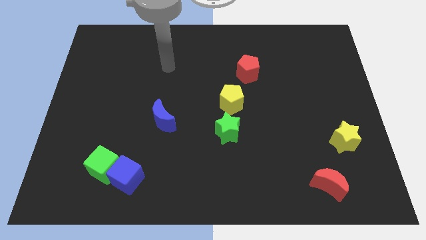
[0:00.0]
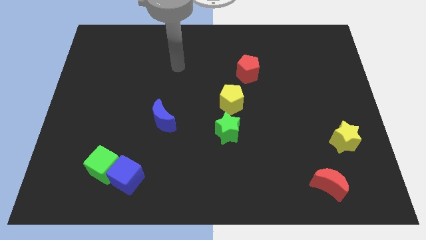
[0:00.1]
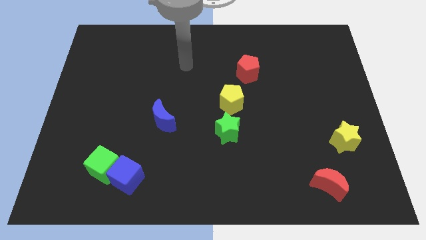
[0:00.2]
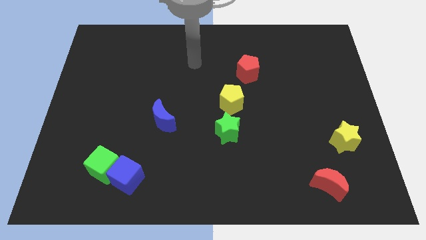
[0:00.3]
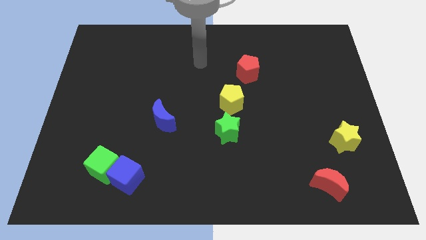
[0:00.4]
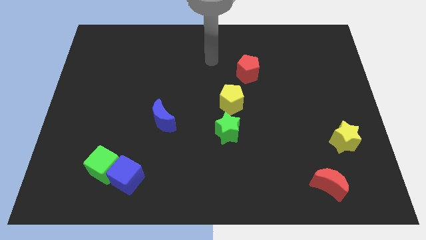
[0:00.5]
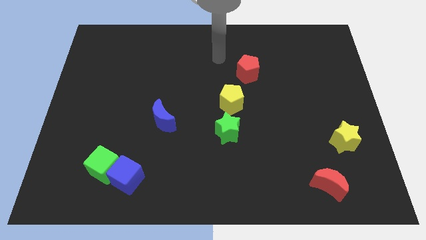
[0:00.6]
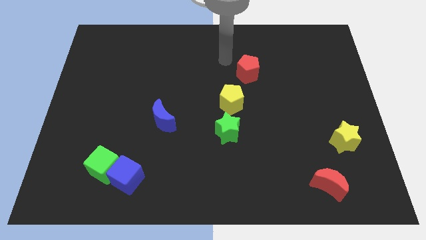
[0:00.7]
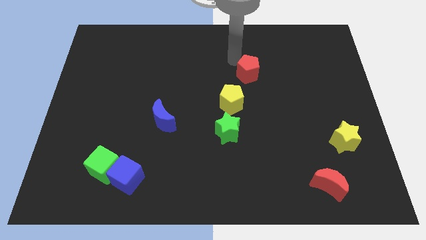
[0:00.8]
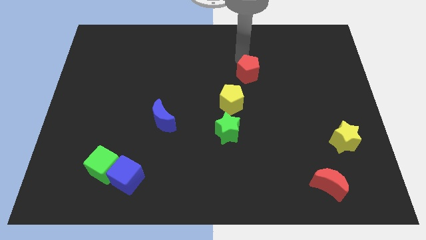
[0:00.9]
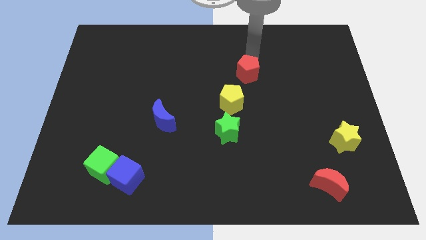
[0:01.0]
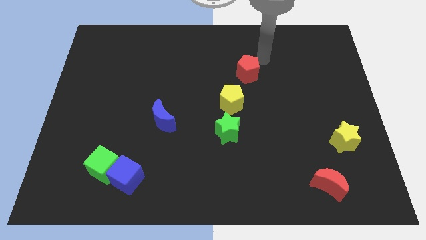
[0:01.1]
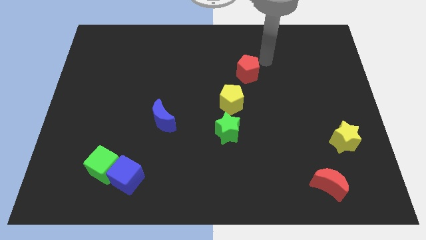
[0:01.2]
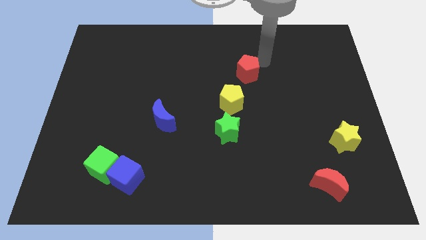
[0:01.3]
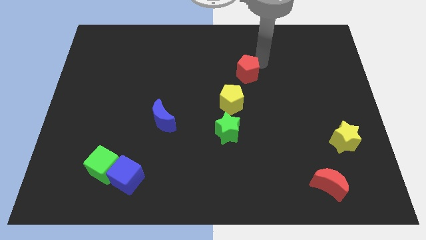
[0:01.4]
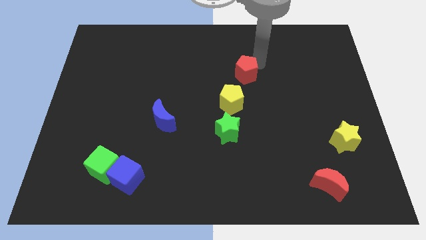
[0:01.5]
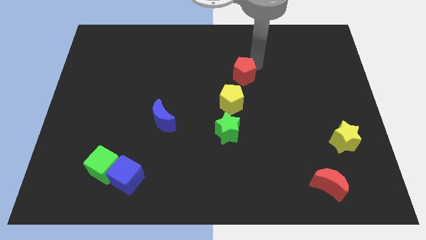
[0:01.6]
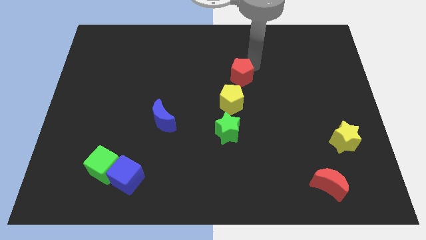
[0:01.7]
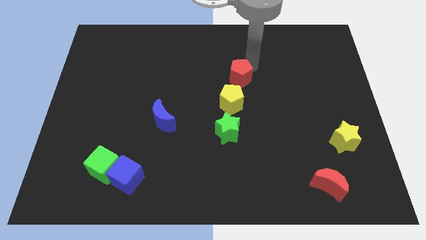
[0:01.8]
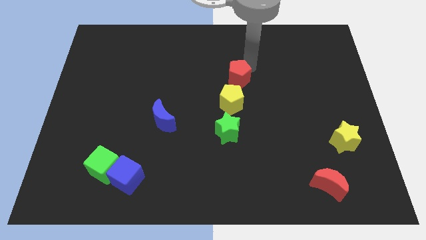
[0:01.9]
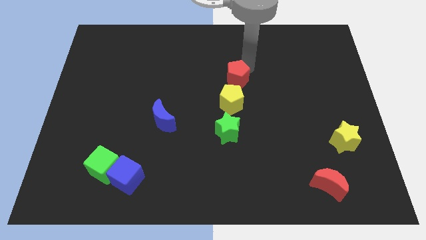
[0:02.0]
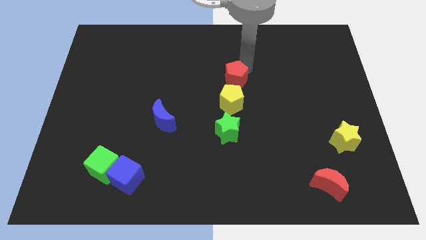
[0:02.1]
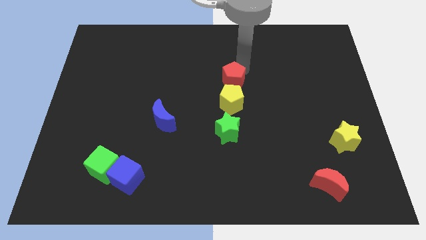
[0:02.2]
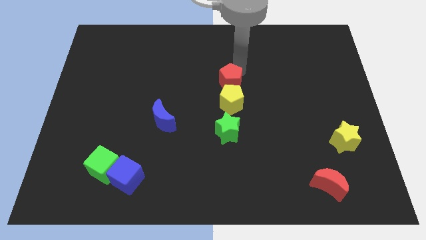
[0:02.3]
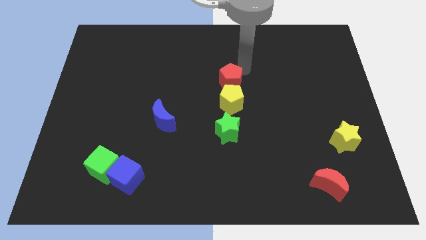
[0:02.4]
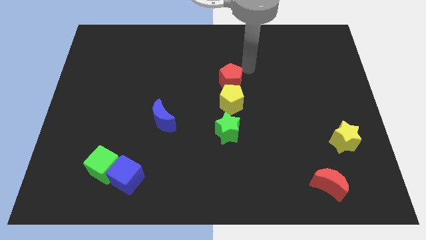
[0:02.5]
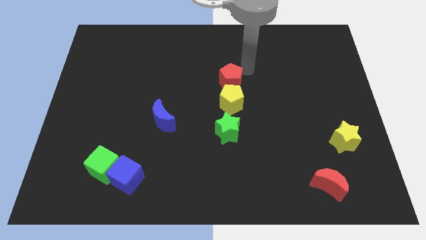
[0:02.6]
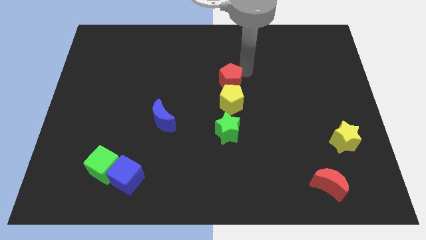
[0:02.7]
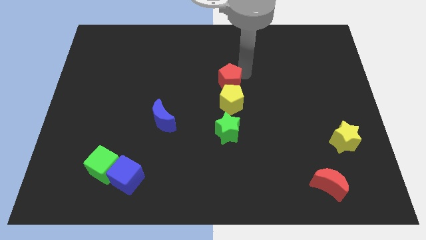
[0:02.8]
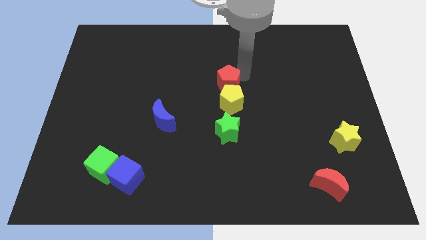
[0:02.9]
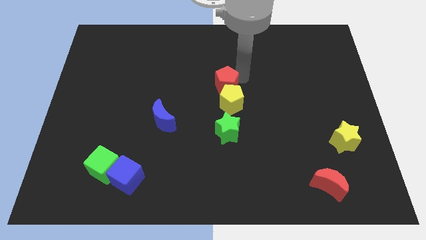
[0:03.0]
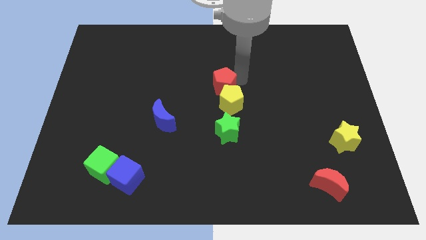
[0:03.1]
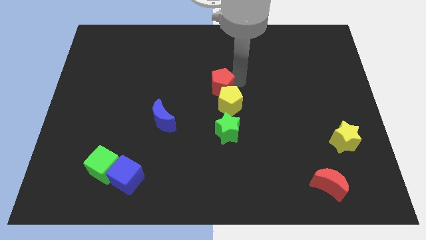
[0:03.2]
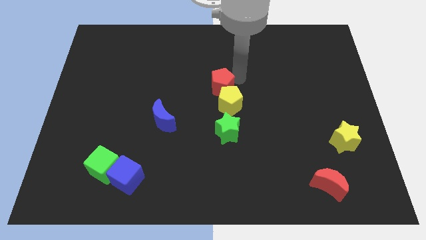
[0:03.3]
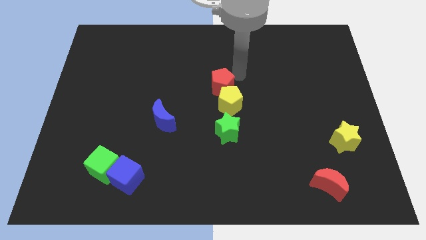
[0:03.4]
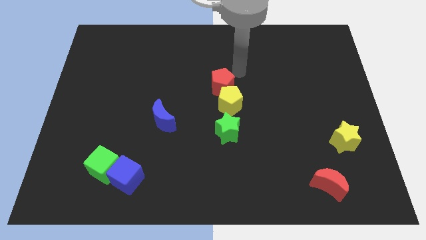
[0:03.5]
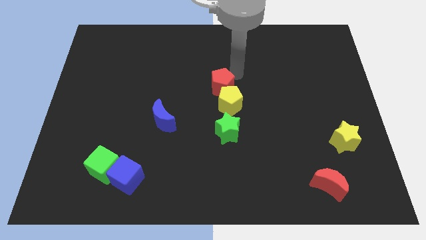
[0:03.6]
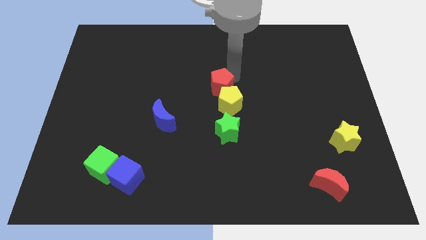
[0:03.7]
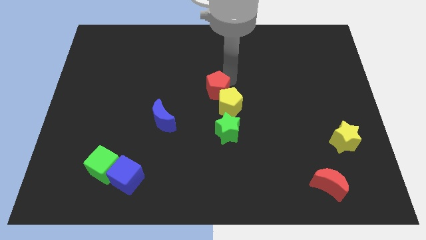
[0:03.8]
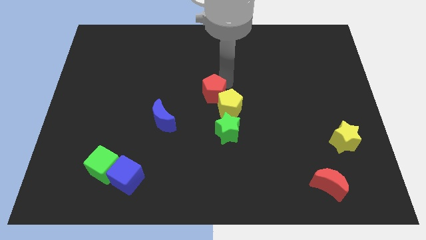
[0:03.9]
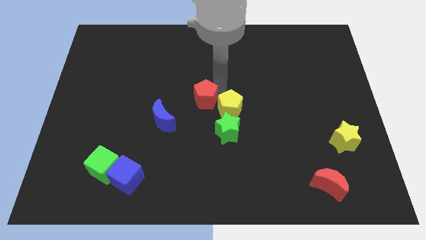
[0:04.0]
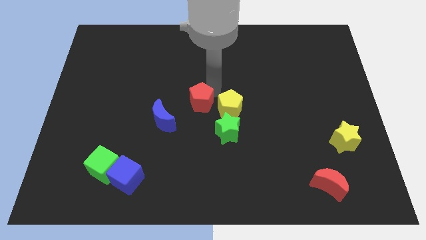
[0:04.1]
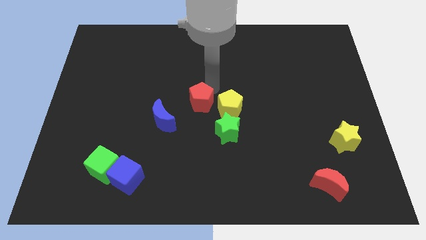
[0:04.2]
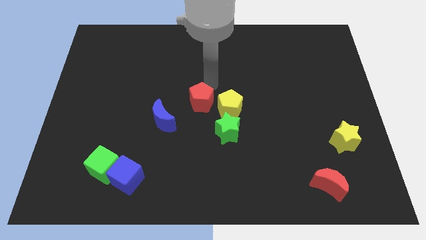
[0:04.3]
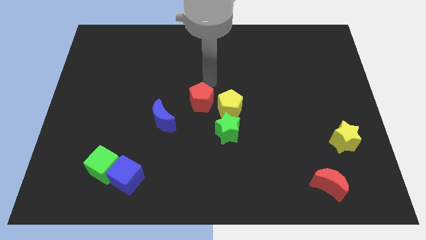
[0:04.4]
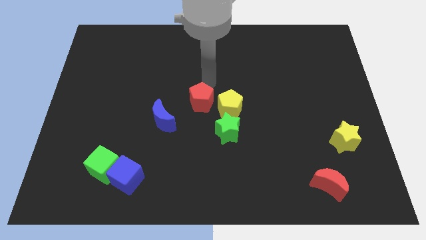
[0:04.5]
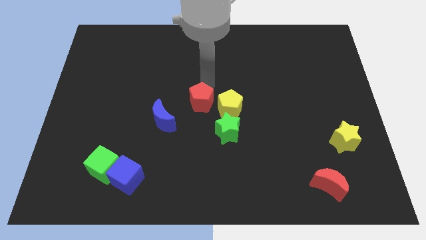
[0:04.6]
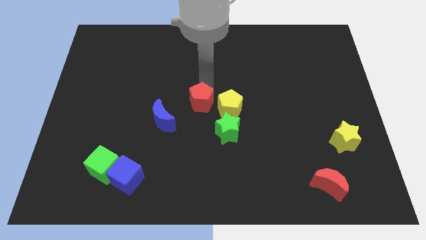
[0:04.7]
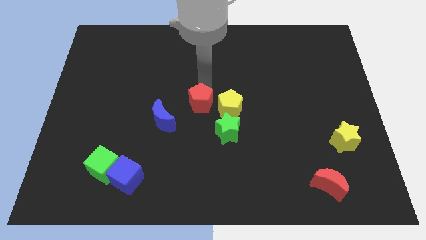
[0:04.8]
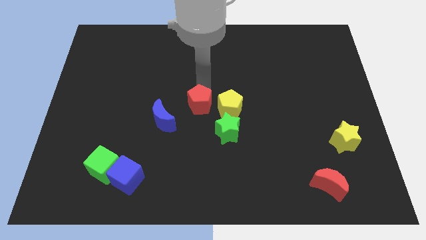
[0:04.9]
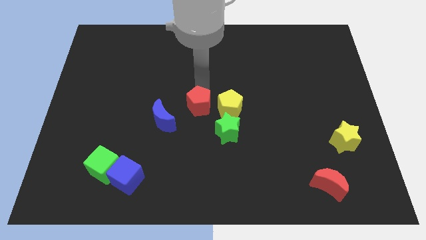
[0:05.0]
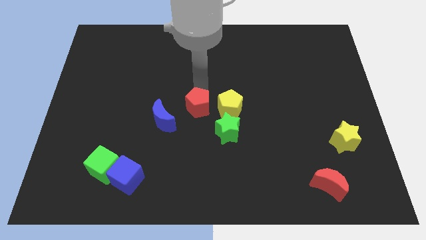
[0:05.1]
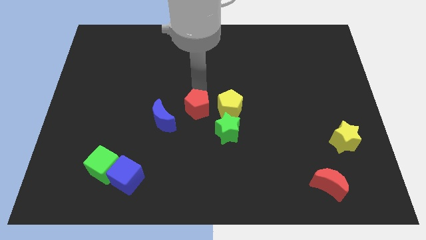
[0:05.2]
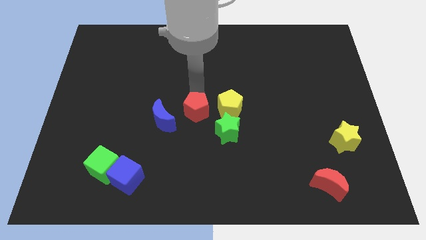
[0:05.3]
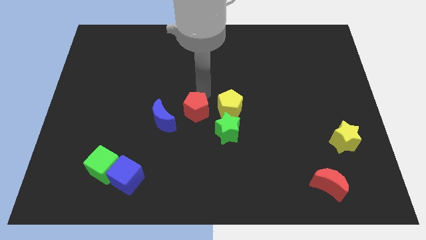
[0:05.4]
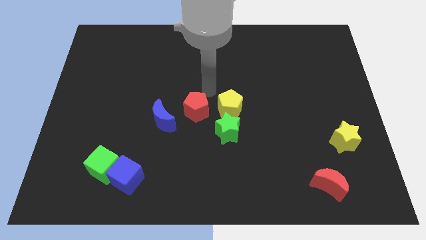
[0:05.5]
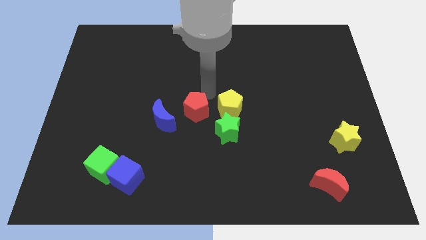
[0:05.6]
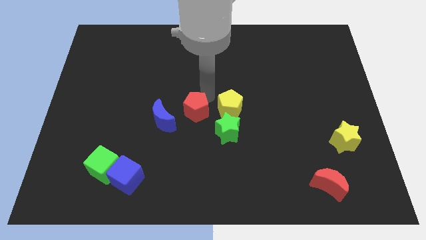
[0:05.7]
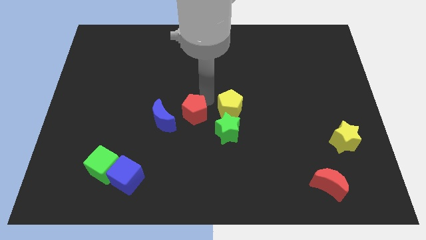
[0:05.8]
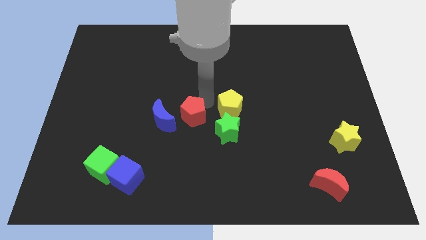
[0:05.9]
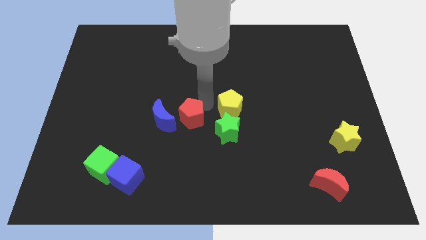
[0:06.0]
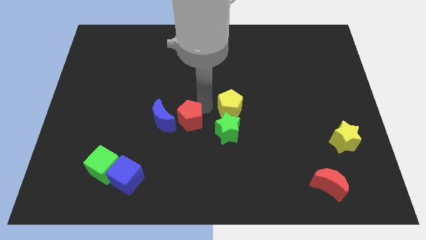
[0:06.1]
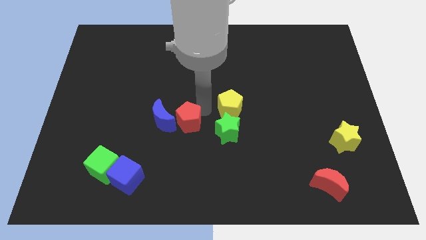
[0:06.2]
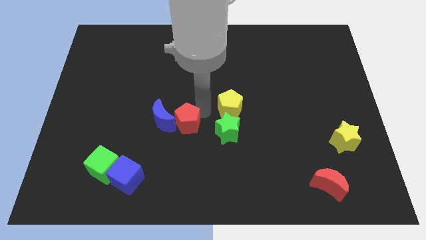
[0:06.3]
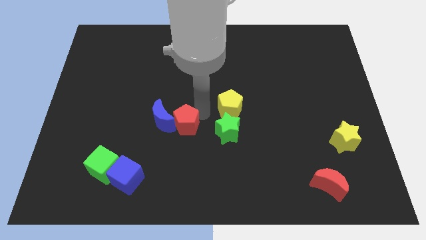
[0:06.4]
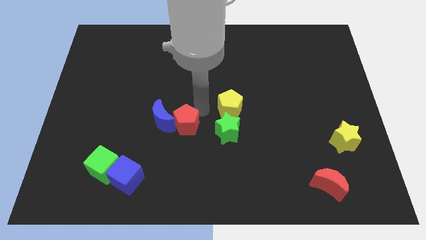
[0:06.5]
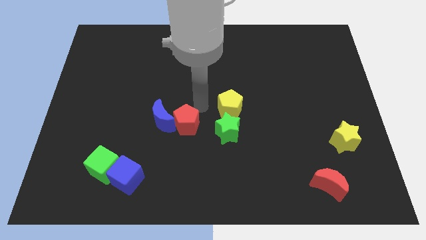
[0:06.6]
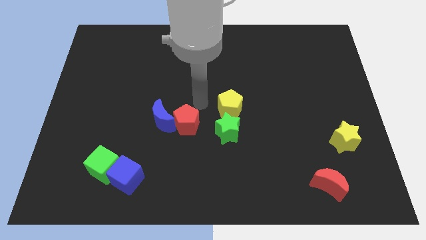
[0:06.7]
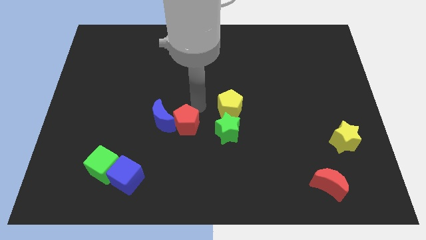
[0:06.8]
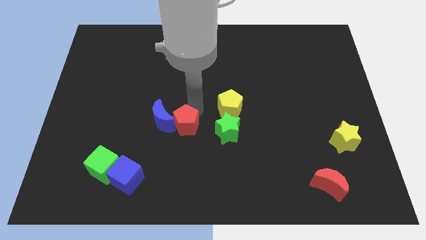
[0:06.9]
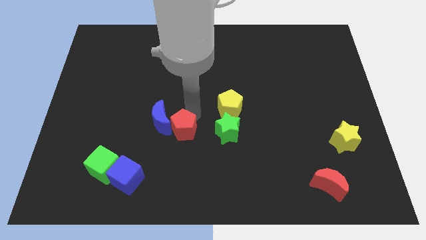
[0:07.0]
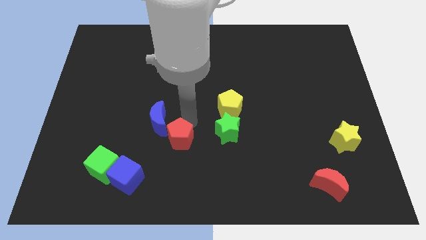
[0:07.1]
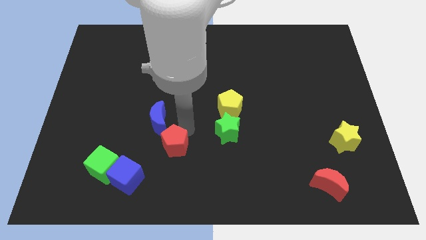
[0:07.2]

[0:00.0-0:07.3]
put the red pentagon below the blue moon
